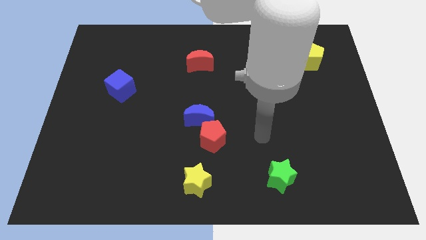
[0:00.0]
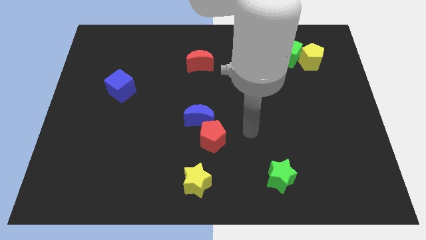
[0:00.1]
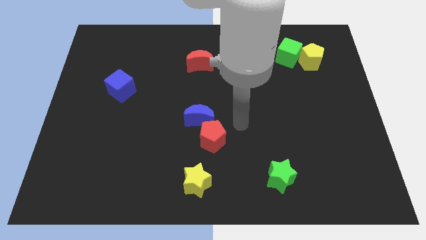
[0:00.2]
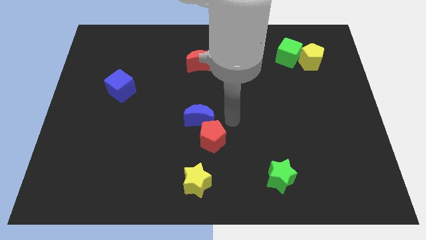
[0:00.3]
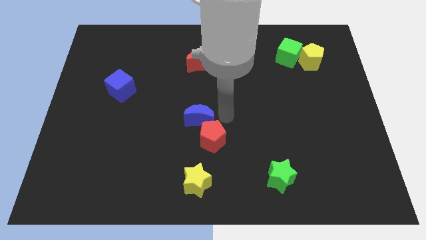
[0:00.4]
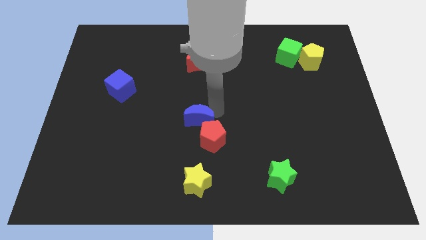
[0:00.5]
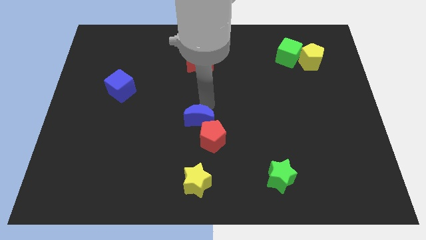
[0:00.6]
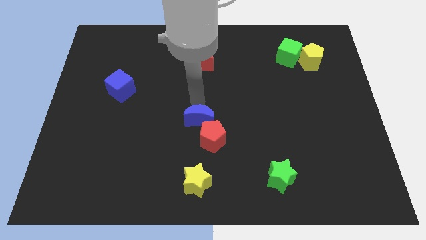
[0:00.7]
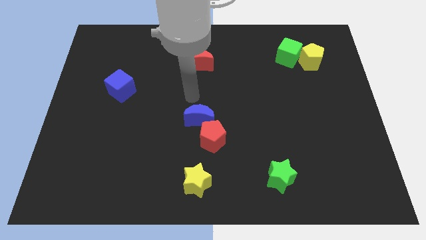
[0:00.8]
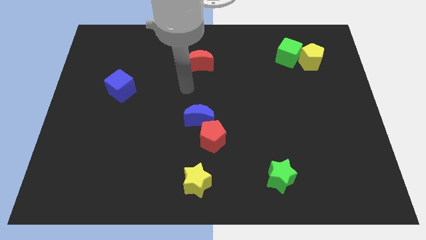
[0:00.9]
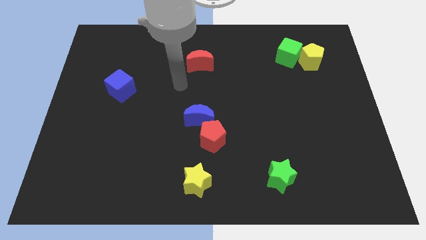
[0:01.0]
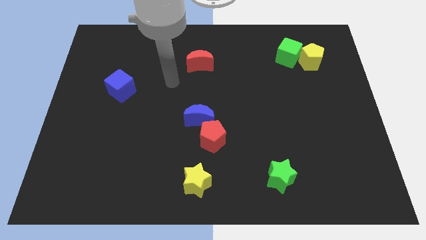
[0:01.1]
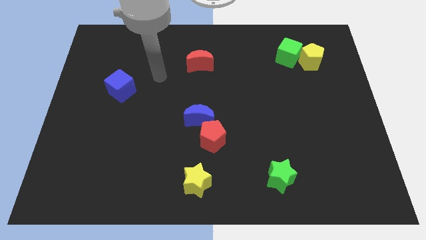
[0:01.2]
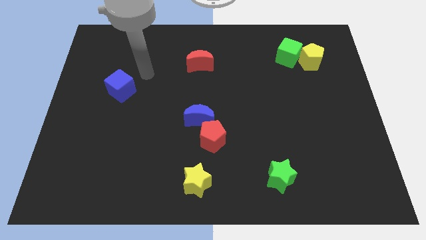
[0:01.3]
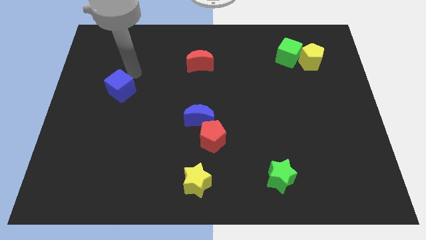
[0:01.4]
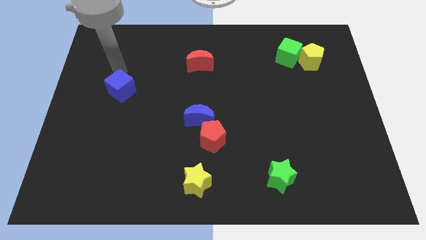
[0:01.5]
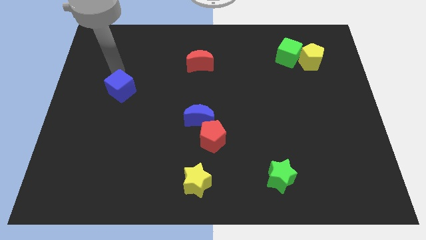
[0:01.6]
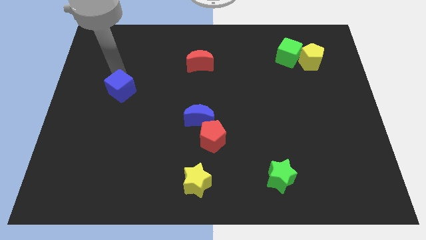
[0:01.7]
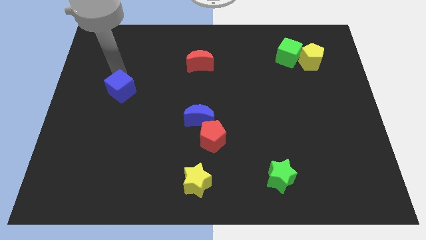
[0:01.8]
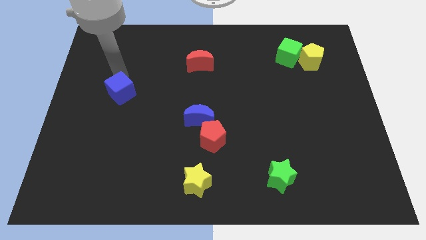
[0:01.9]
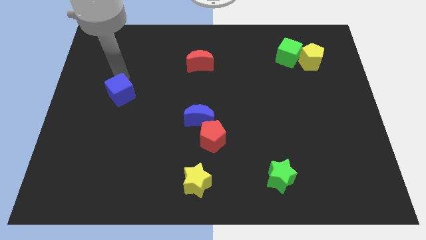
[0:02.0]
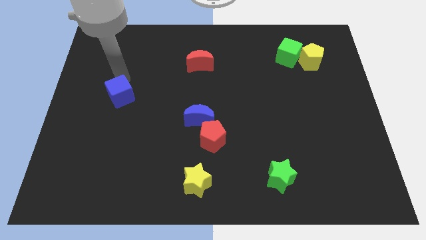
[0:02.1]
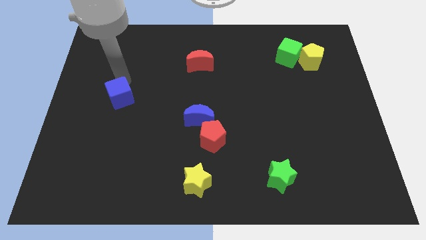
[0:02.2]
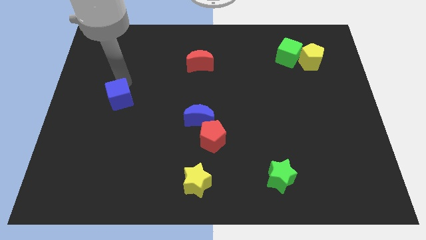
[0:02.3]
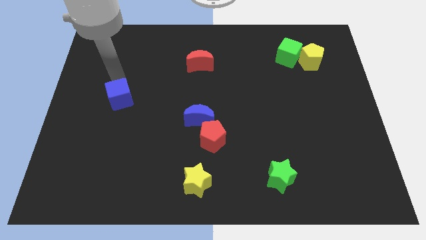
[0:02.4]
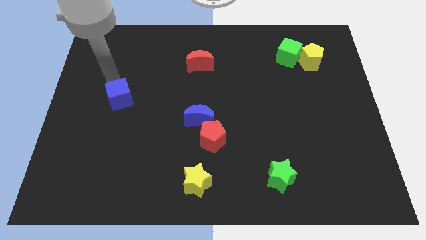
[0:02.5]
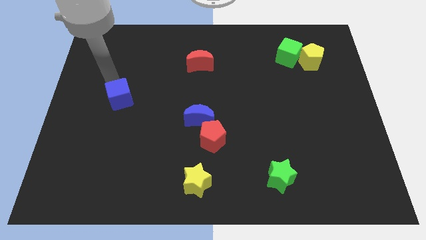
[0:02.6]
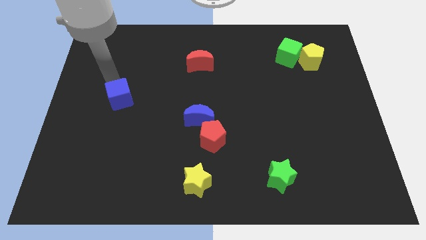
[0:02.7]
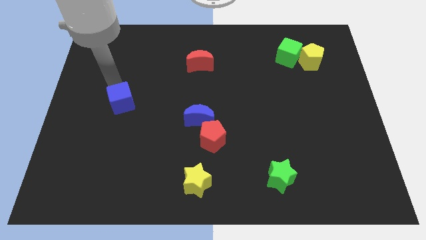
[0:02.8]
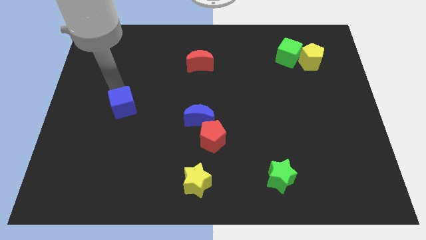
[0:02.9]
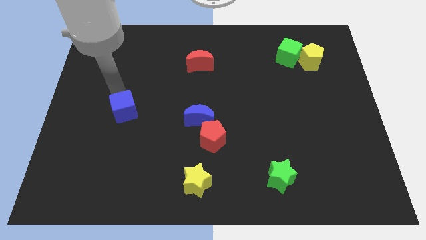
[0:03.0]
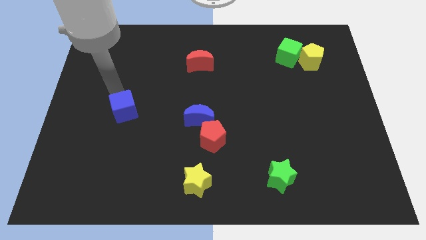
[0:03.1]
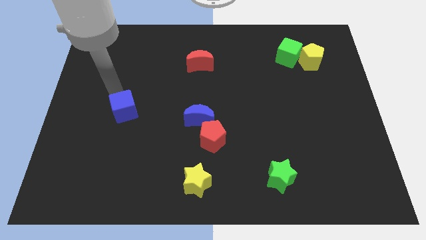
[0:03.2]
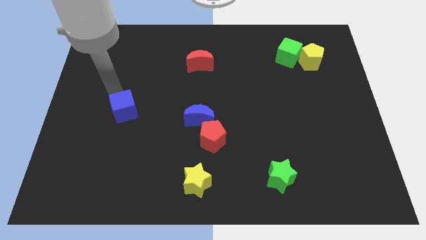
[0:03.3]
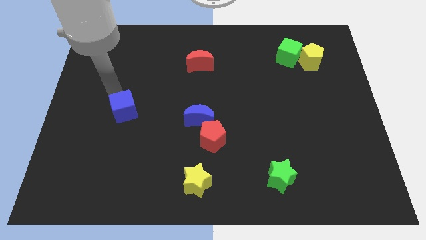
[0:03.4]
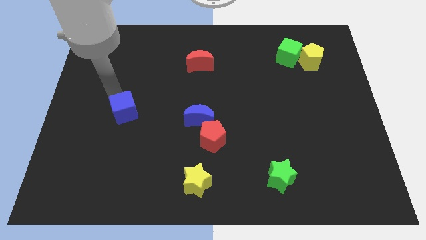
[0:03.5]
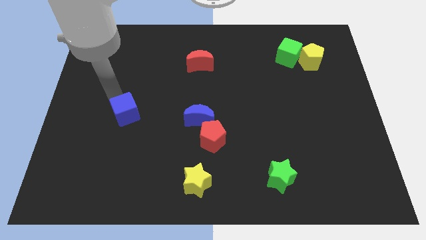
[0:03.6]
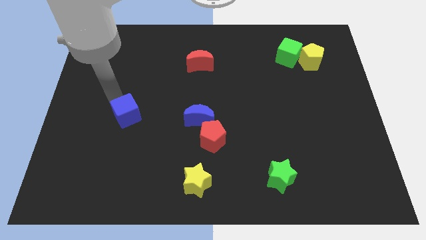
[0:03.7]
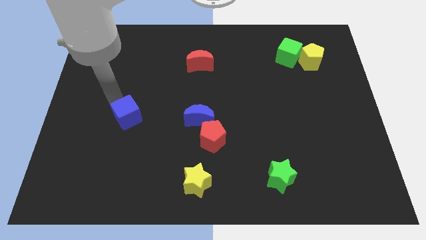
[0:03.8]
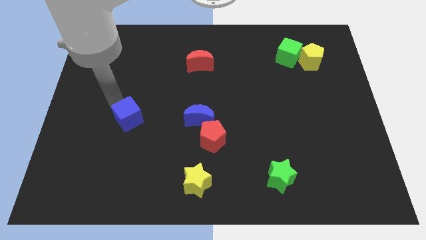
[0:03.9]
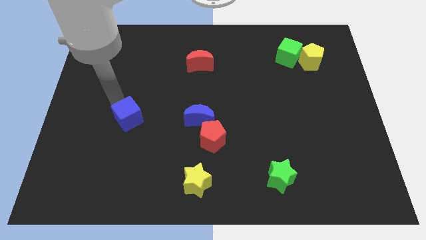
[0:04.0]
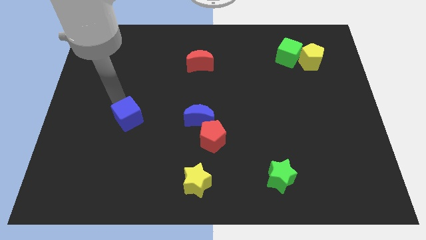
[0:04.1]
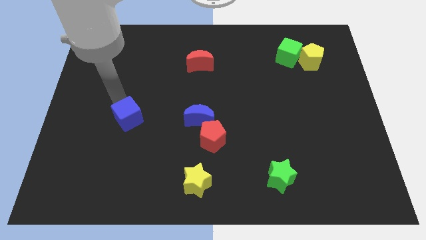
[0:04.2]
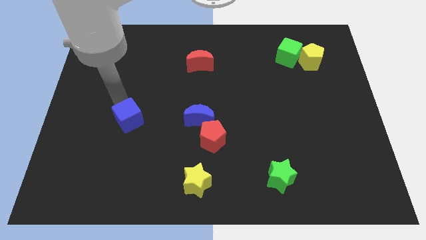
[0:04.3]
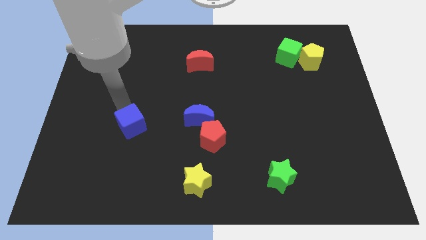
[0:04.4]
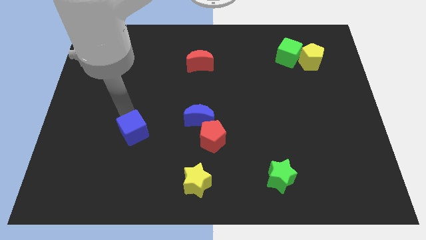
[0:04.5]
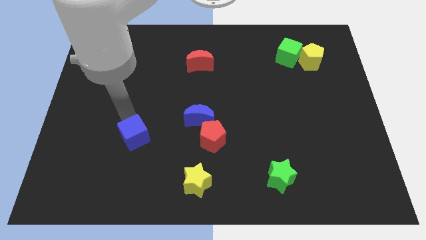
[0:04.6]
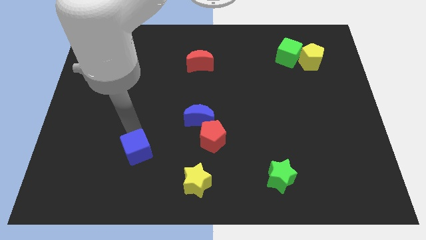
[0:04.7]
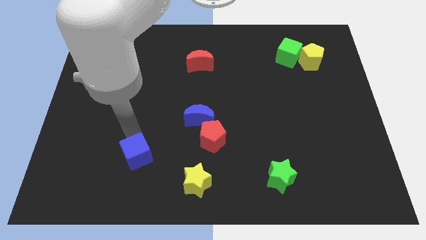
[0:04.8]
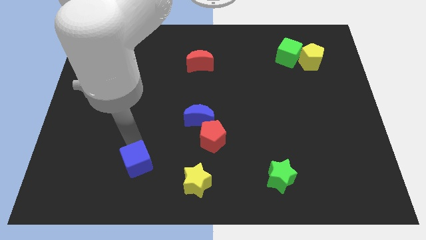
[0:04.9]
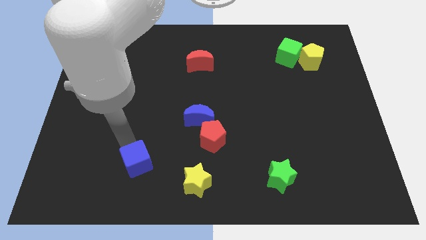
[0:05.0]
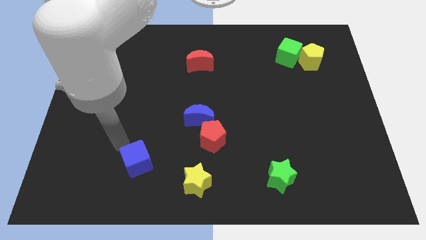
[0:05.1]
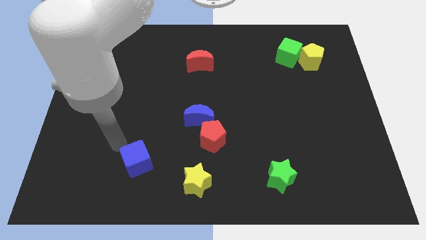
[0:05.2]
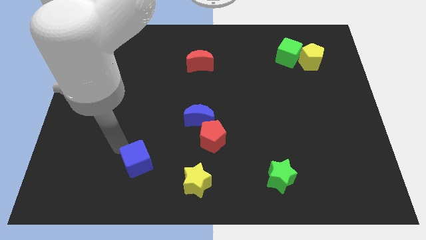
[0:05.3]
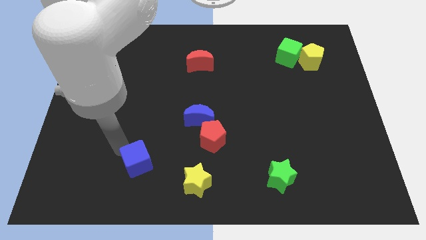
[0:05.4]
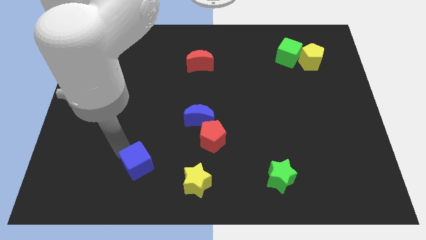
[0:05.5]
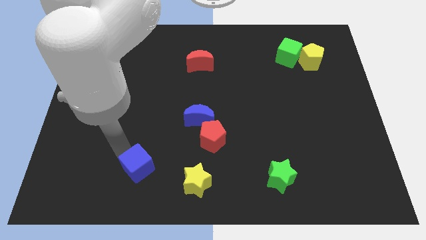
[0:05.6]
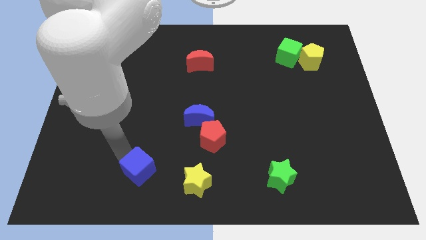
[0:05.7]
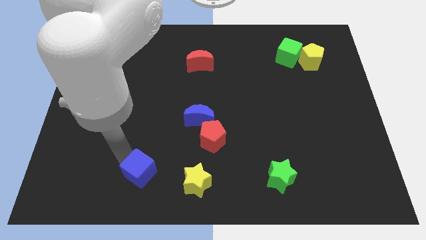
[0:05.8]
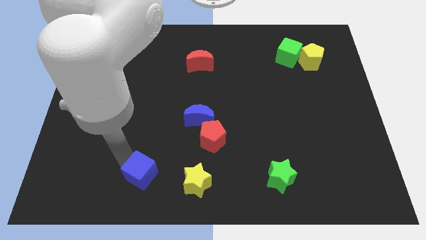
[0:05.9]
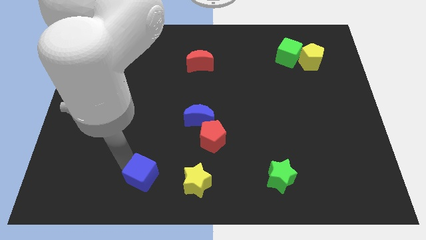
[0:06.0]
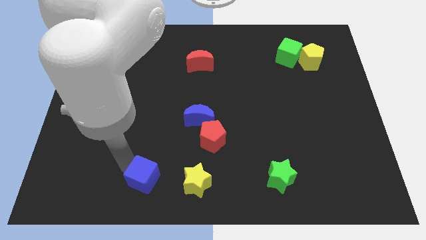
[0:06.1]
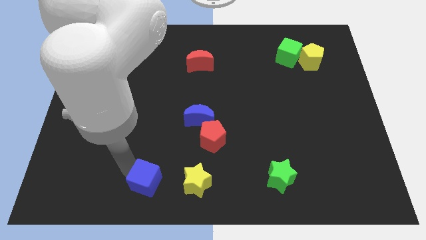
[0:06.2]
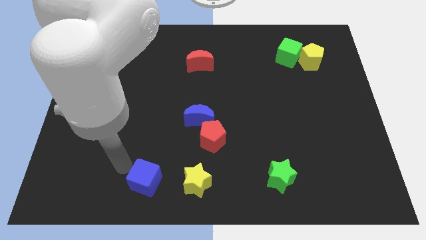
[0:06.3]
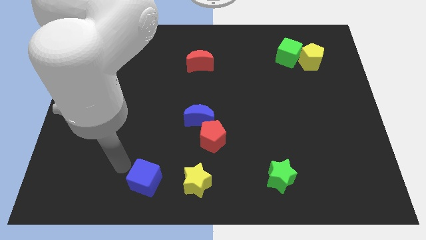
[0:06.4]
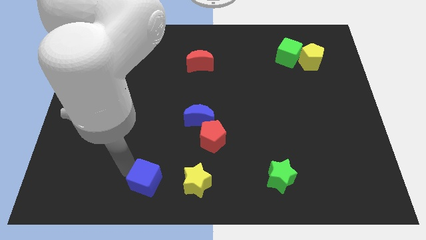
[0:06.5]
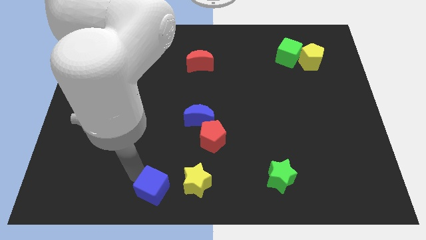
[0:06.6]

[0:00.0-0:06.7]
push the blue cube to the bottom side
